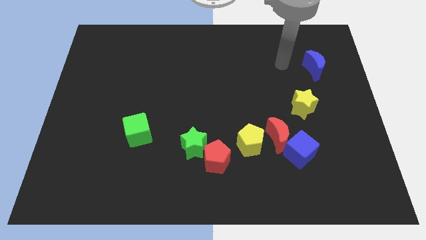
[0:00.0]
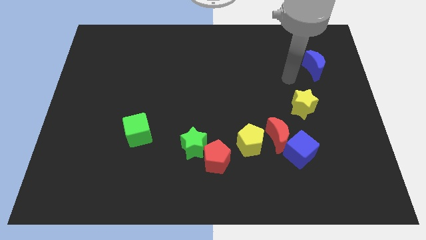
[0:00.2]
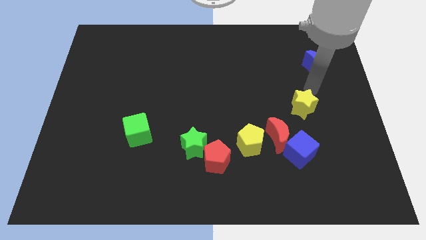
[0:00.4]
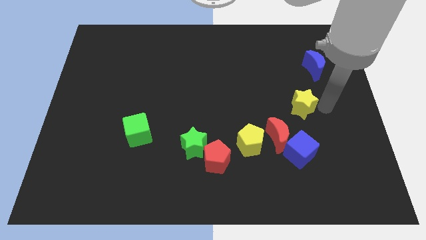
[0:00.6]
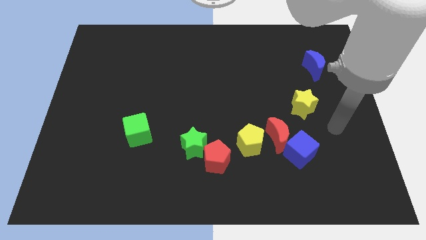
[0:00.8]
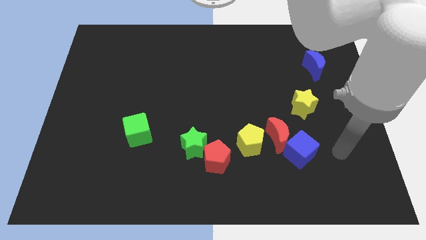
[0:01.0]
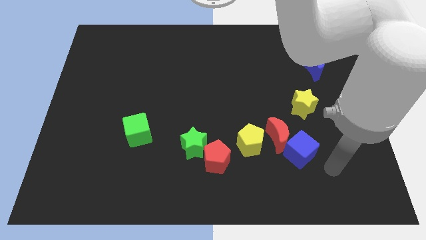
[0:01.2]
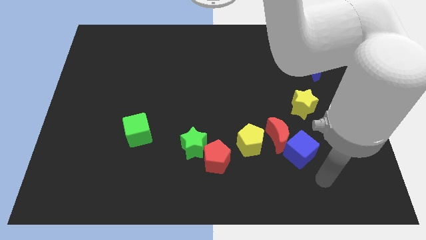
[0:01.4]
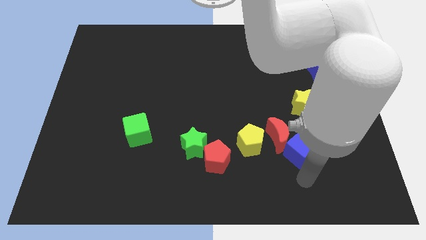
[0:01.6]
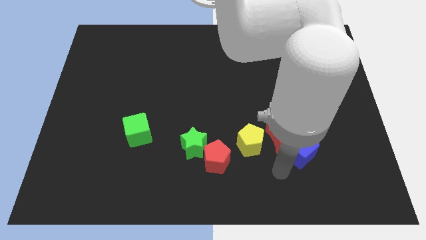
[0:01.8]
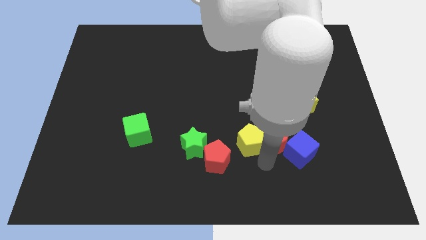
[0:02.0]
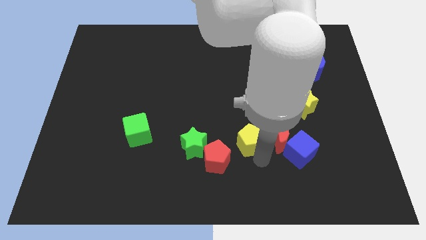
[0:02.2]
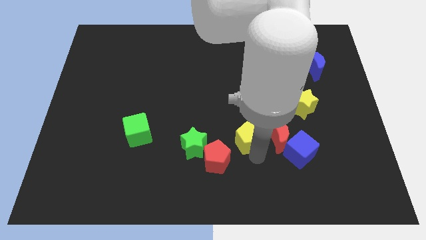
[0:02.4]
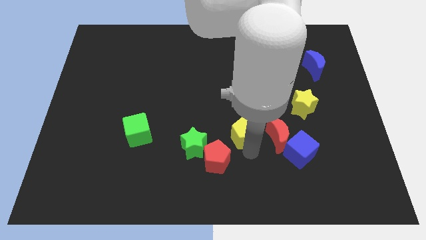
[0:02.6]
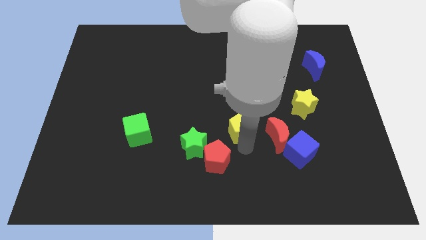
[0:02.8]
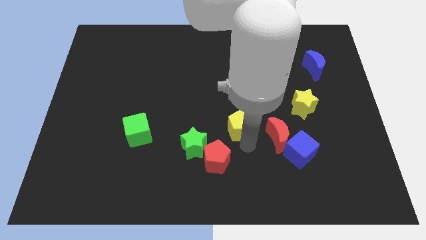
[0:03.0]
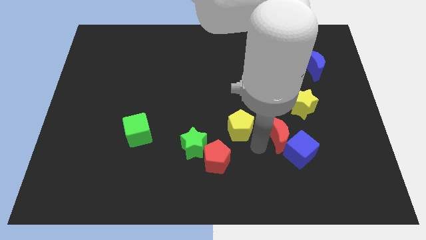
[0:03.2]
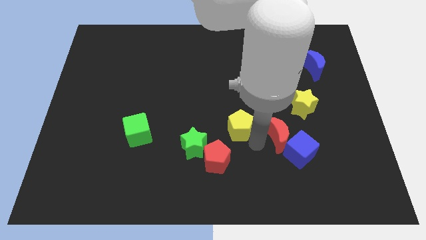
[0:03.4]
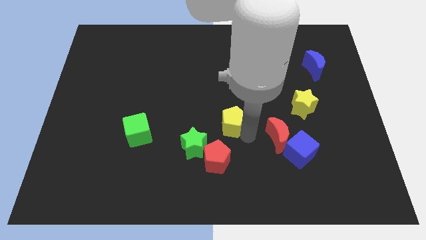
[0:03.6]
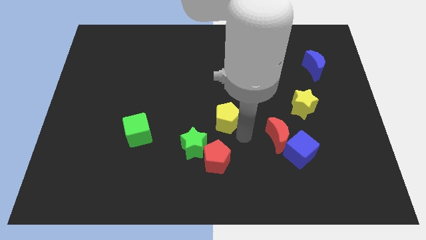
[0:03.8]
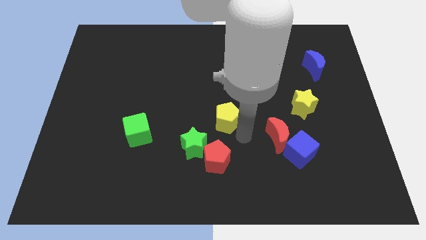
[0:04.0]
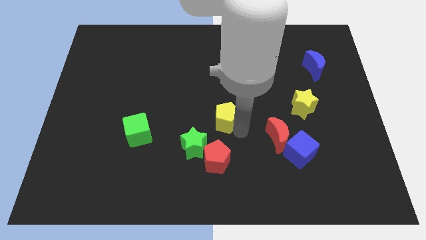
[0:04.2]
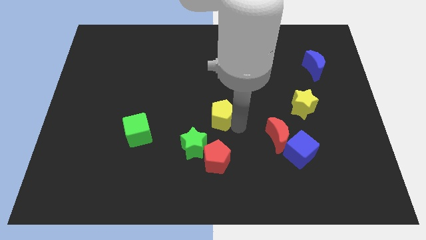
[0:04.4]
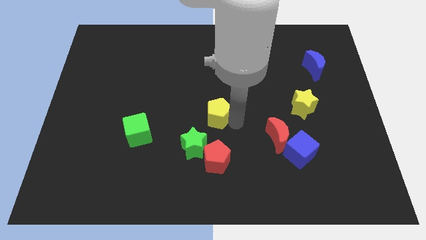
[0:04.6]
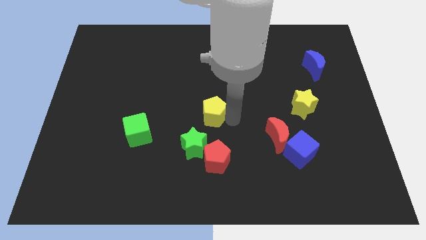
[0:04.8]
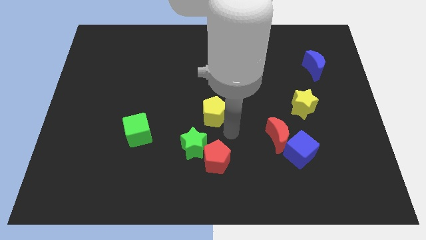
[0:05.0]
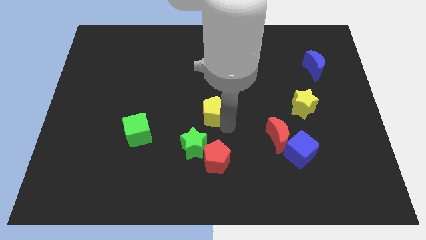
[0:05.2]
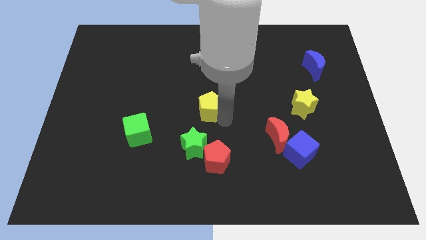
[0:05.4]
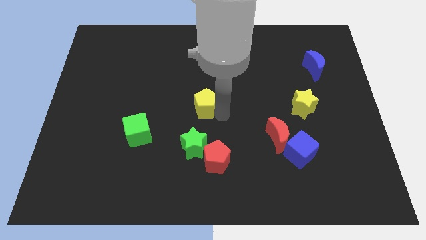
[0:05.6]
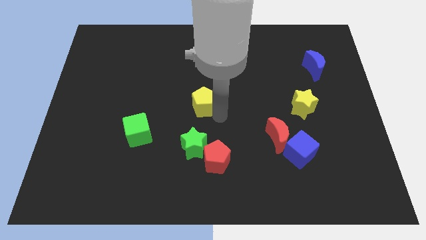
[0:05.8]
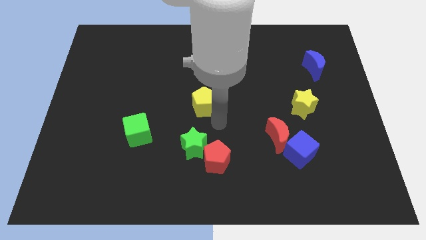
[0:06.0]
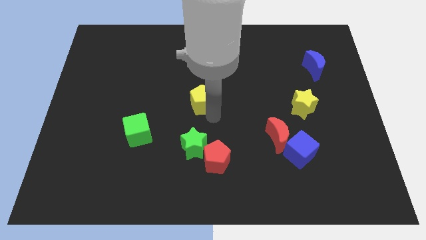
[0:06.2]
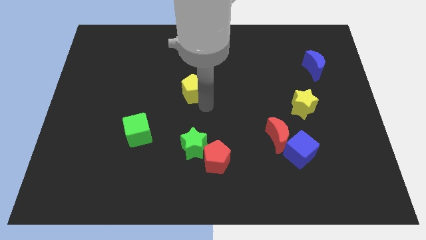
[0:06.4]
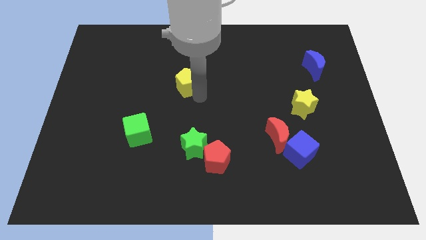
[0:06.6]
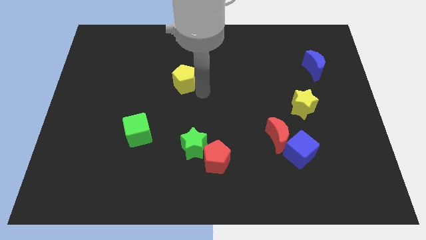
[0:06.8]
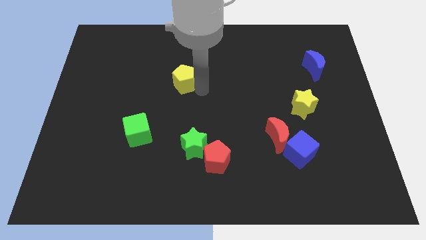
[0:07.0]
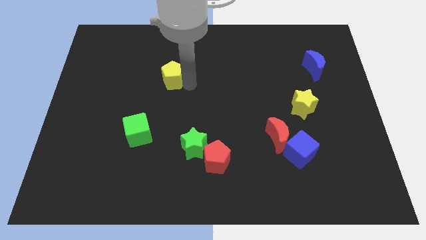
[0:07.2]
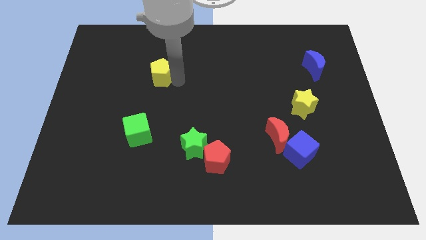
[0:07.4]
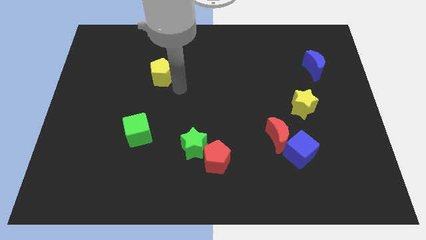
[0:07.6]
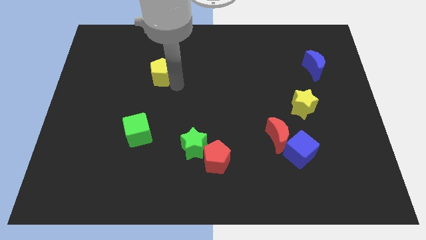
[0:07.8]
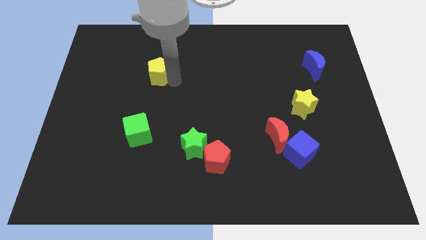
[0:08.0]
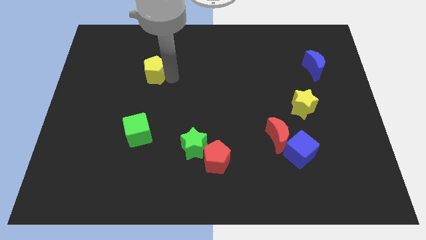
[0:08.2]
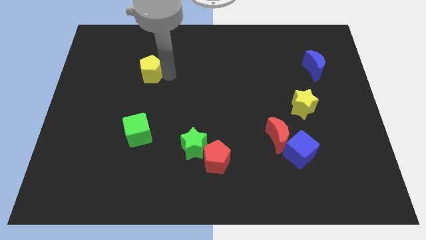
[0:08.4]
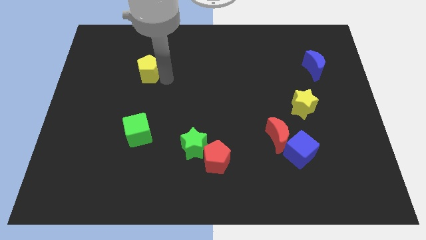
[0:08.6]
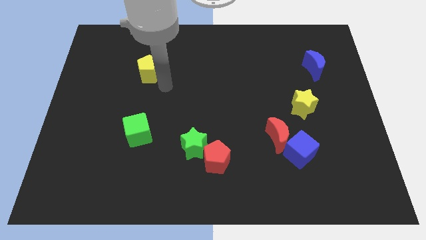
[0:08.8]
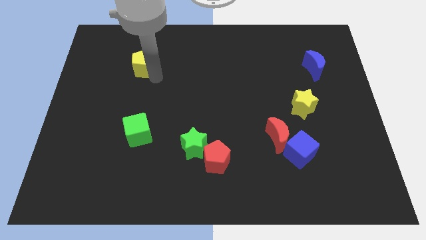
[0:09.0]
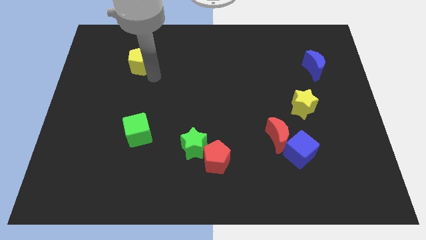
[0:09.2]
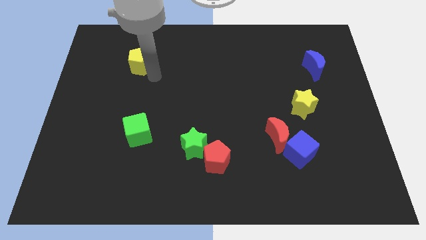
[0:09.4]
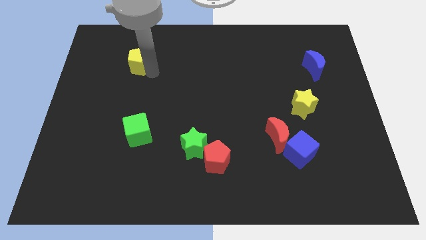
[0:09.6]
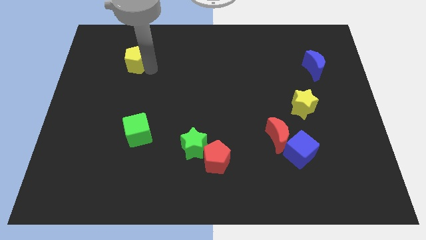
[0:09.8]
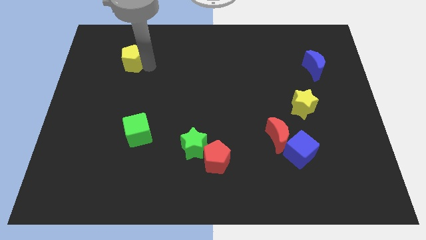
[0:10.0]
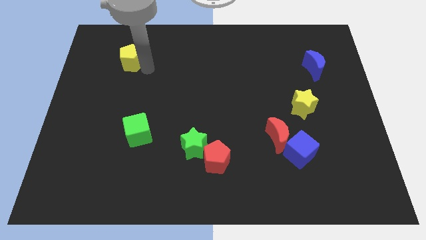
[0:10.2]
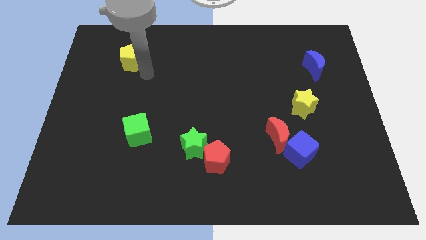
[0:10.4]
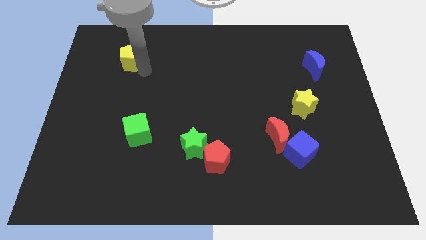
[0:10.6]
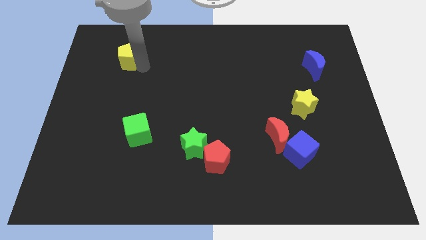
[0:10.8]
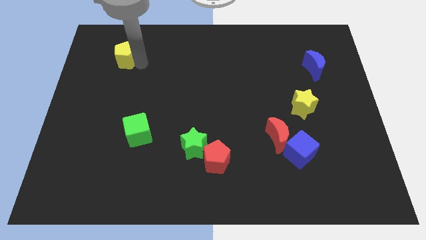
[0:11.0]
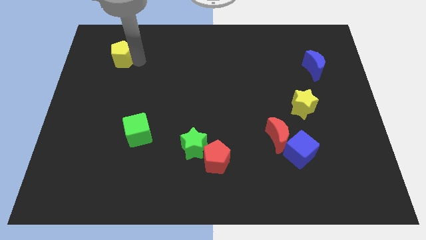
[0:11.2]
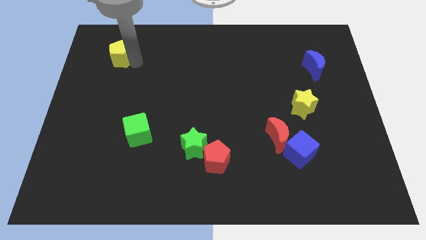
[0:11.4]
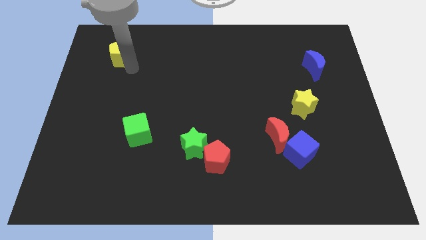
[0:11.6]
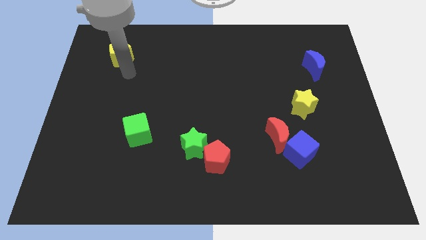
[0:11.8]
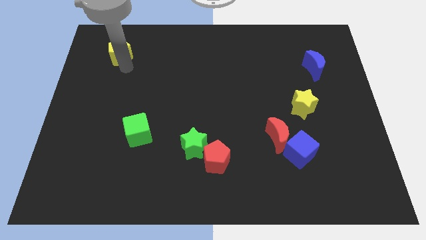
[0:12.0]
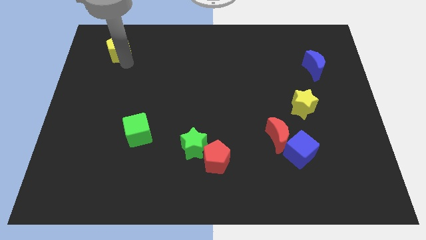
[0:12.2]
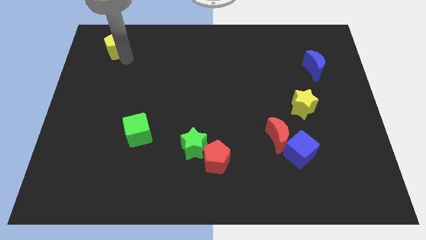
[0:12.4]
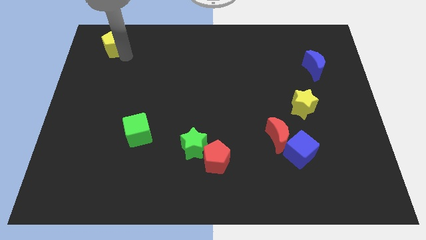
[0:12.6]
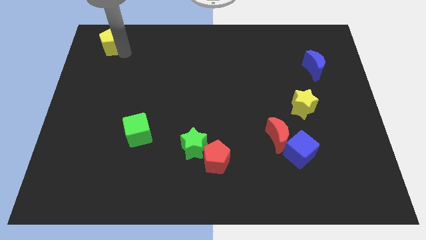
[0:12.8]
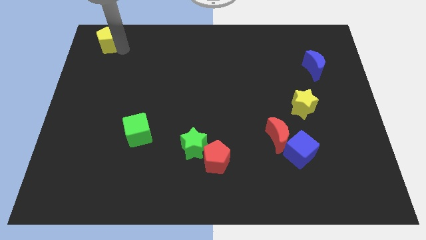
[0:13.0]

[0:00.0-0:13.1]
put the yellow pentagon to the top left corner

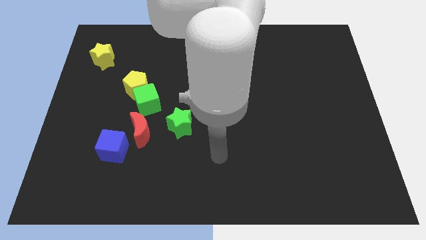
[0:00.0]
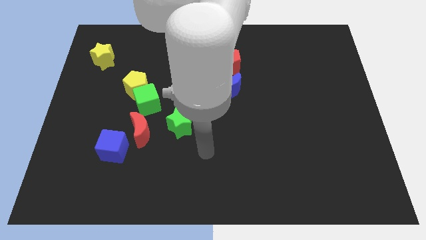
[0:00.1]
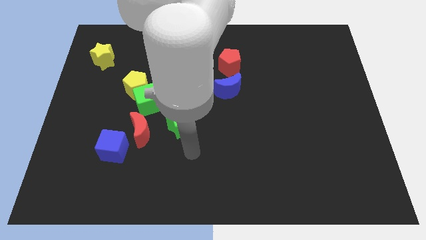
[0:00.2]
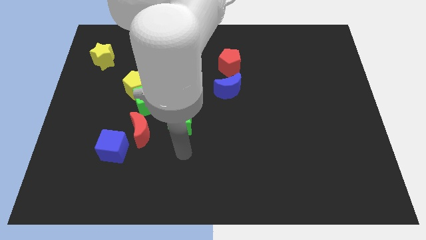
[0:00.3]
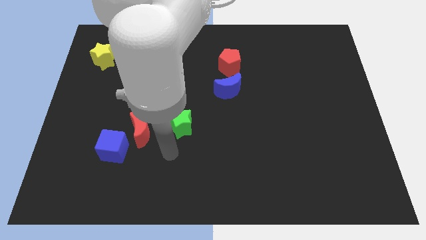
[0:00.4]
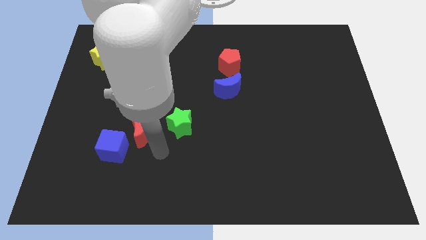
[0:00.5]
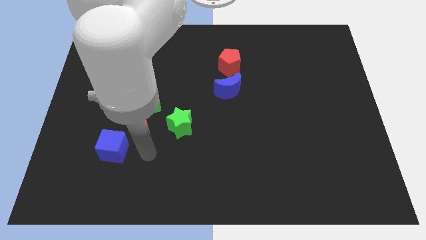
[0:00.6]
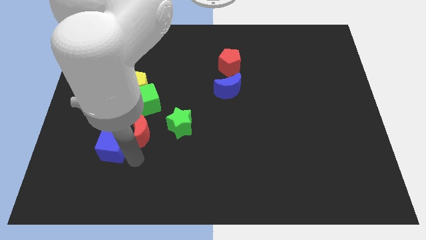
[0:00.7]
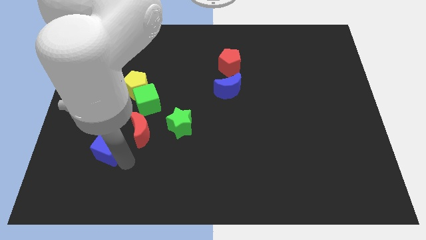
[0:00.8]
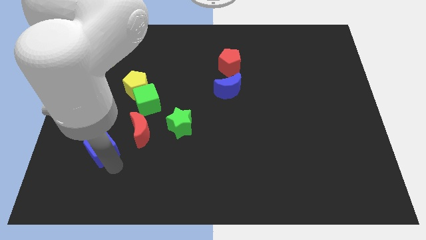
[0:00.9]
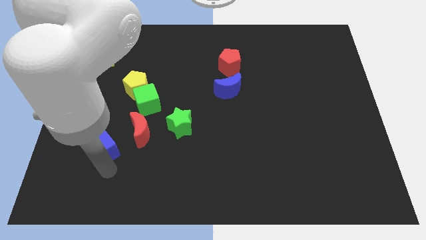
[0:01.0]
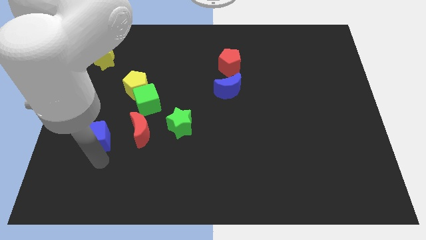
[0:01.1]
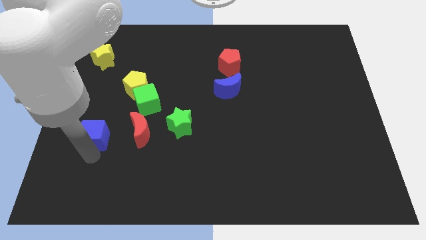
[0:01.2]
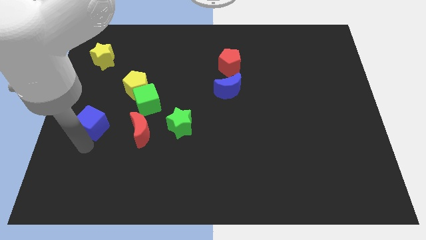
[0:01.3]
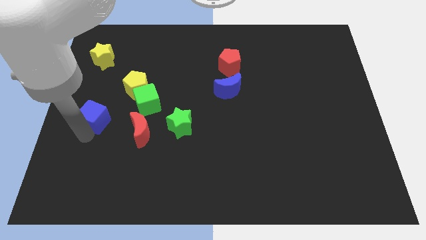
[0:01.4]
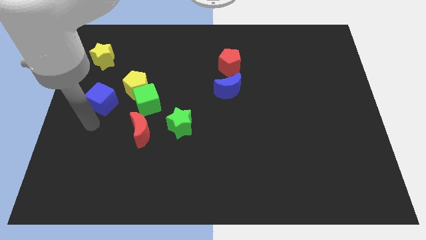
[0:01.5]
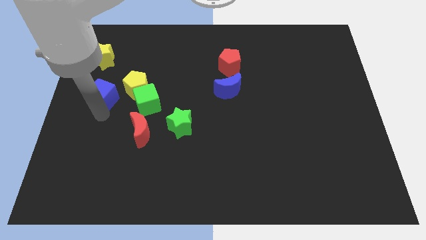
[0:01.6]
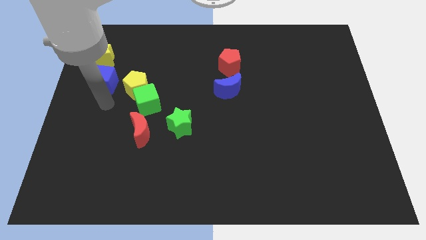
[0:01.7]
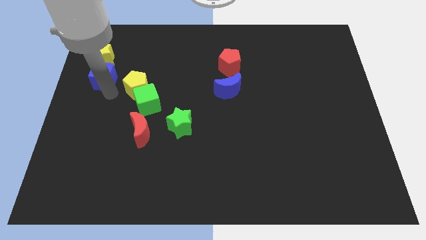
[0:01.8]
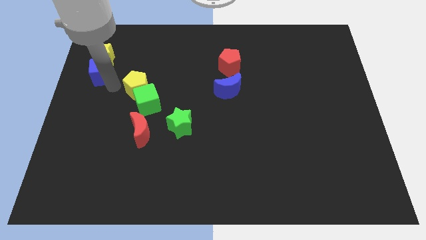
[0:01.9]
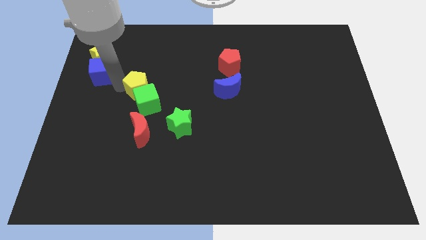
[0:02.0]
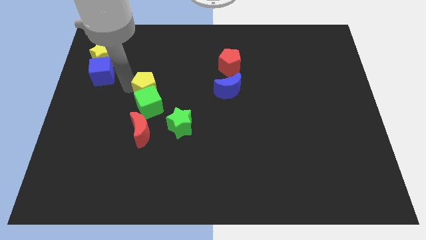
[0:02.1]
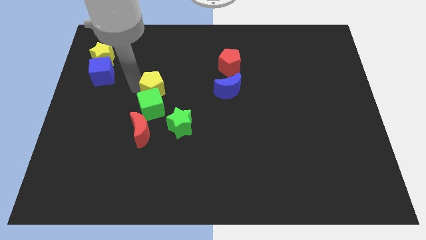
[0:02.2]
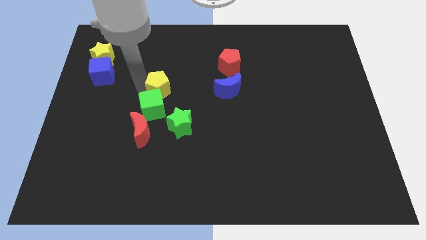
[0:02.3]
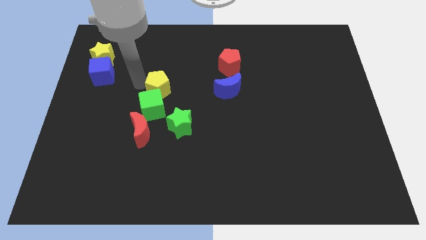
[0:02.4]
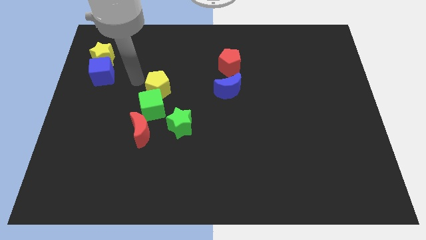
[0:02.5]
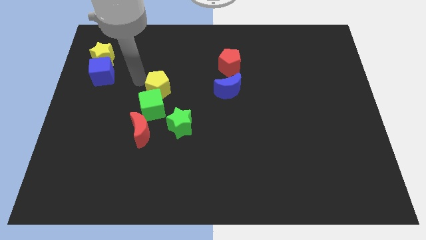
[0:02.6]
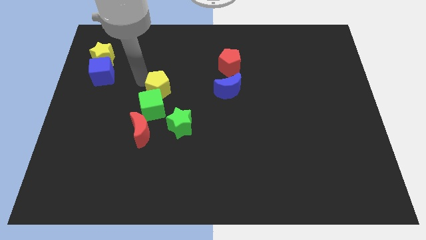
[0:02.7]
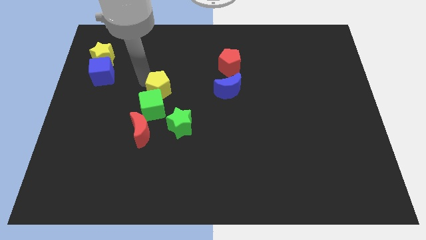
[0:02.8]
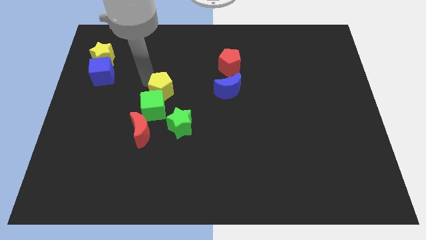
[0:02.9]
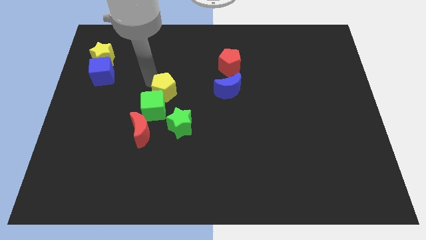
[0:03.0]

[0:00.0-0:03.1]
slide the yellow pentagon to the middle of the board
